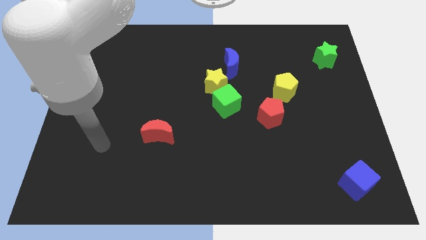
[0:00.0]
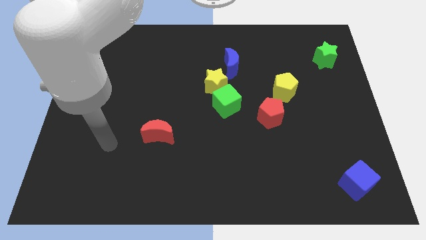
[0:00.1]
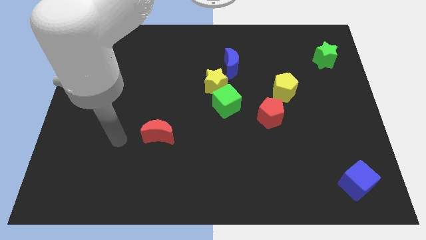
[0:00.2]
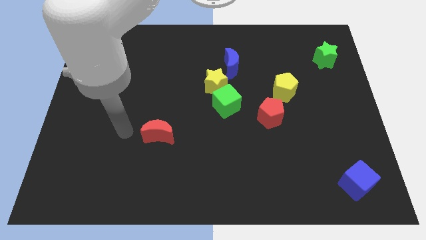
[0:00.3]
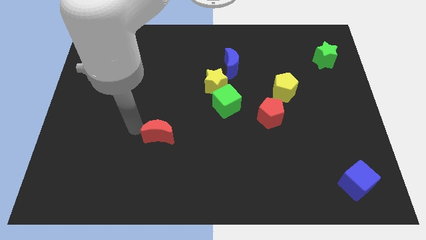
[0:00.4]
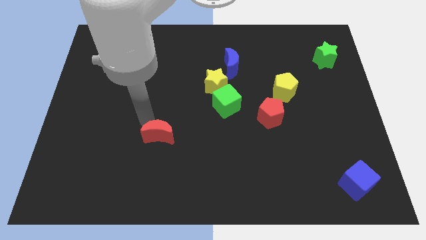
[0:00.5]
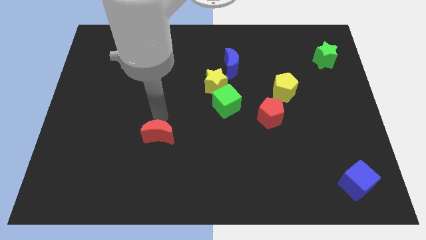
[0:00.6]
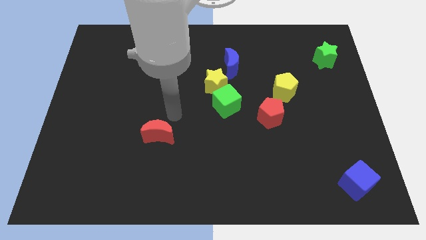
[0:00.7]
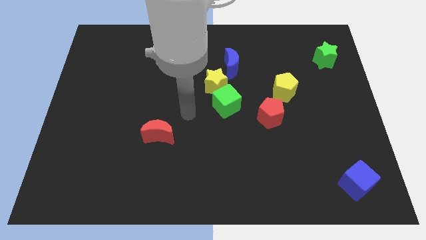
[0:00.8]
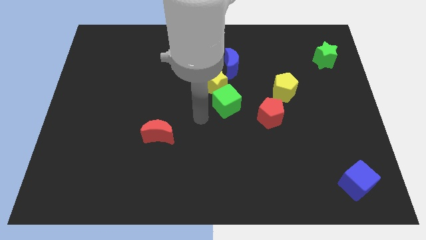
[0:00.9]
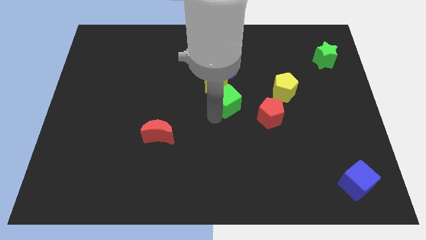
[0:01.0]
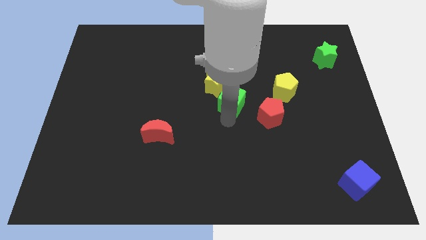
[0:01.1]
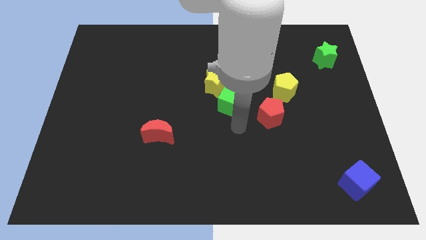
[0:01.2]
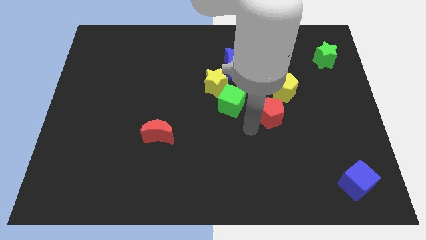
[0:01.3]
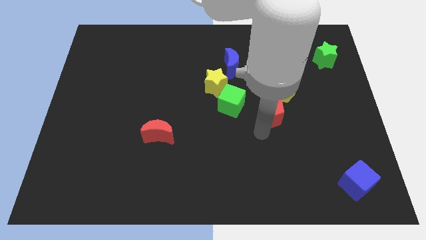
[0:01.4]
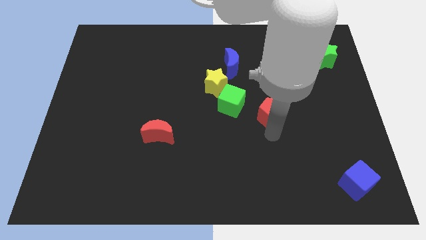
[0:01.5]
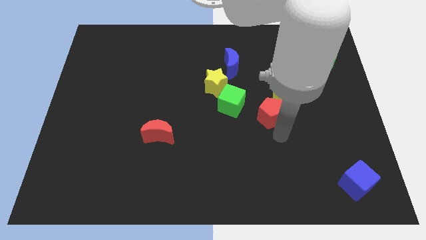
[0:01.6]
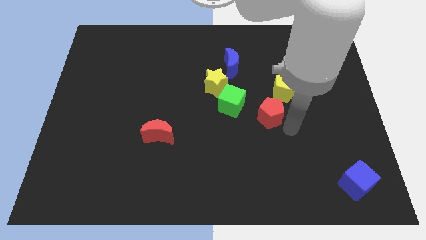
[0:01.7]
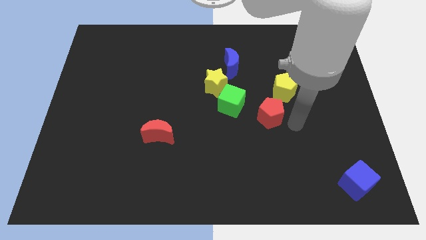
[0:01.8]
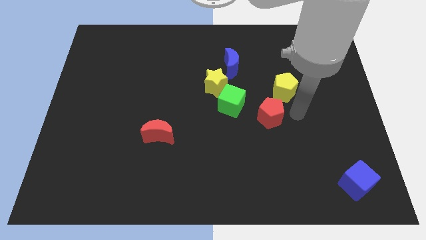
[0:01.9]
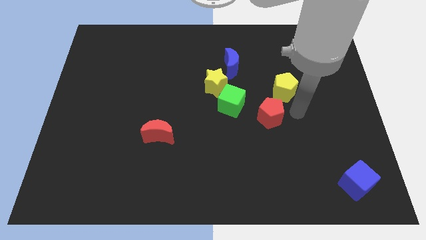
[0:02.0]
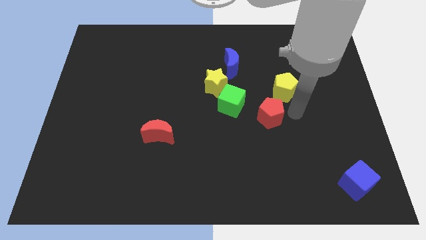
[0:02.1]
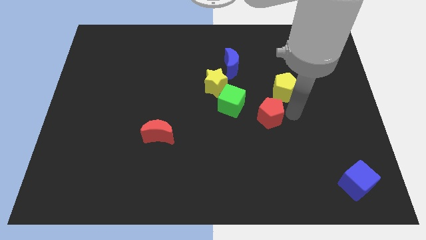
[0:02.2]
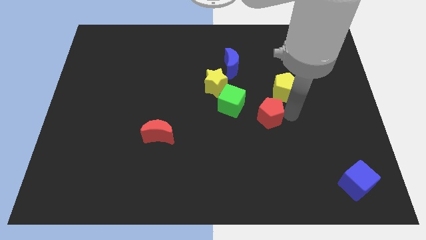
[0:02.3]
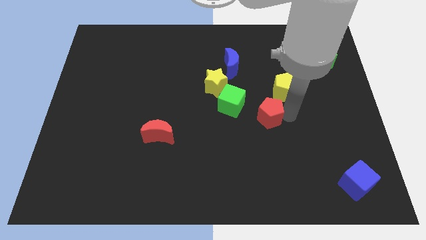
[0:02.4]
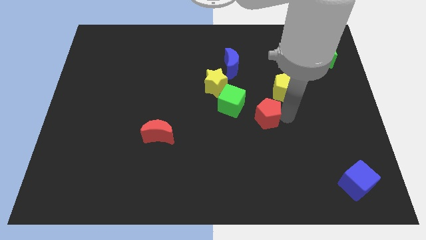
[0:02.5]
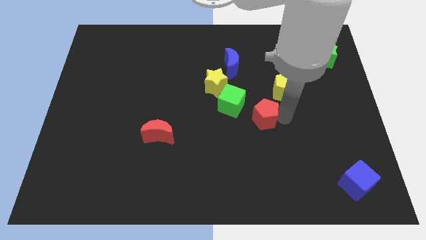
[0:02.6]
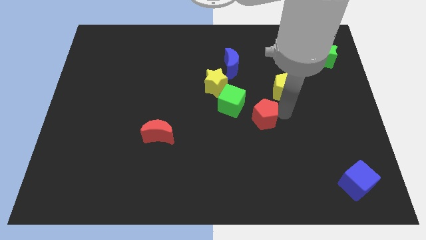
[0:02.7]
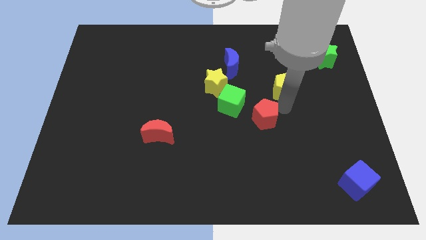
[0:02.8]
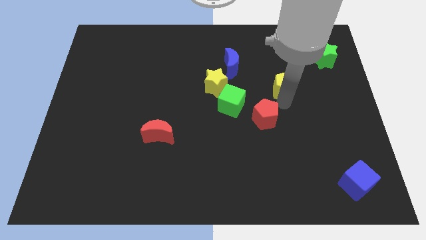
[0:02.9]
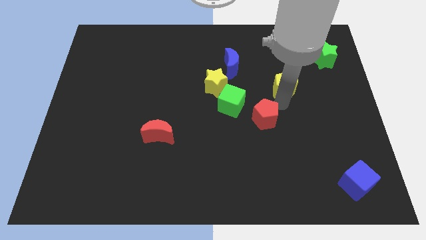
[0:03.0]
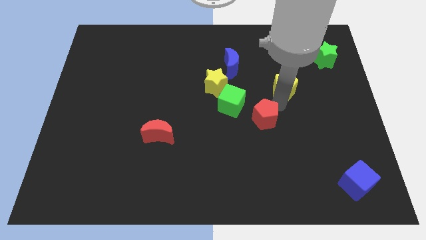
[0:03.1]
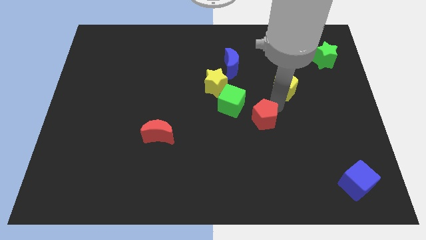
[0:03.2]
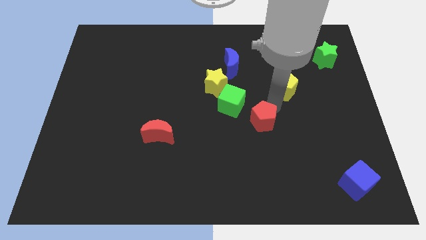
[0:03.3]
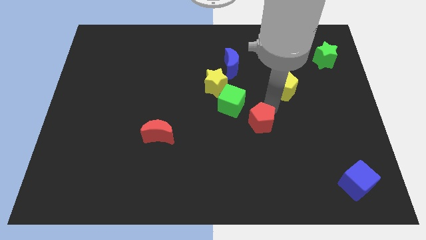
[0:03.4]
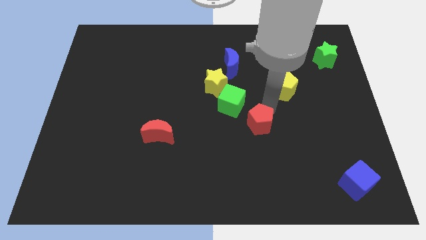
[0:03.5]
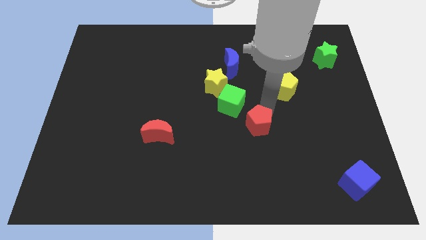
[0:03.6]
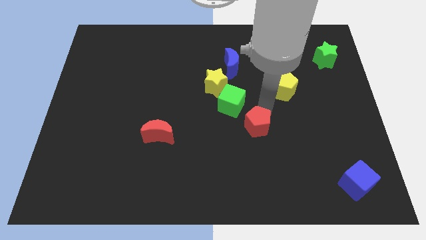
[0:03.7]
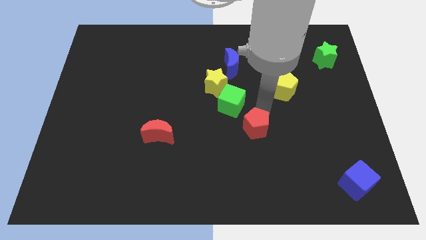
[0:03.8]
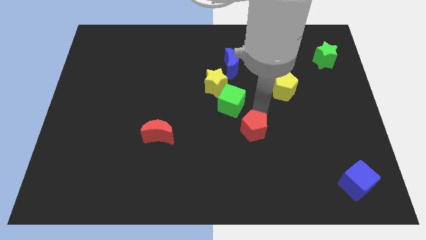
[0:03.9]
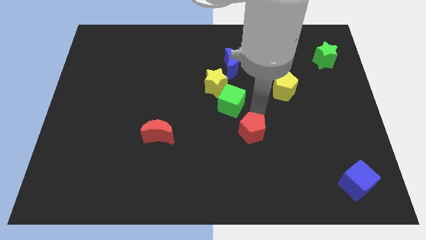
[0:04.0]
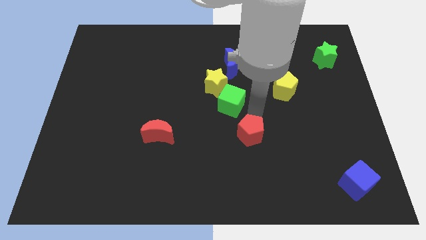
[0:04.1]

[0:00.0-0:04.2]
slide the red pentagon down and to the left diagonally a little

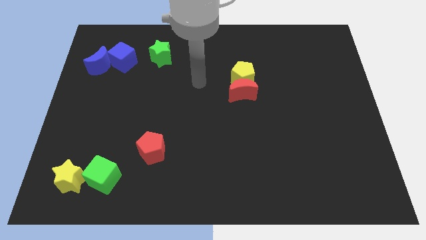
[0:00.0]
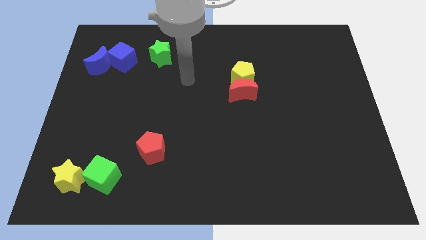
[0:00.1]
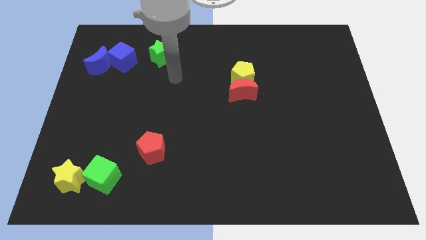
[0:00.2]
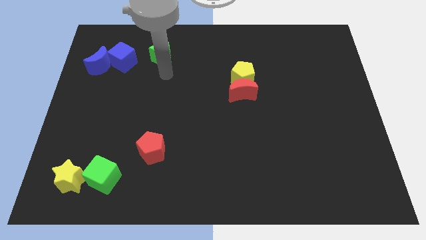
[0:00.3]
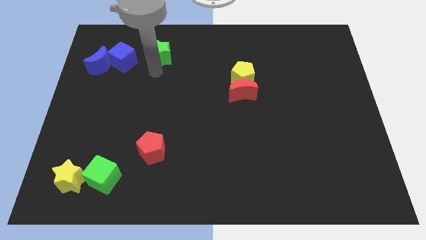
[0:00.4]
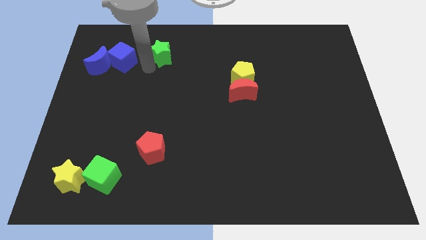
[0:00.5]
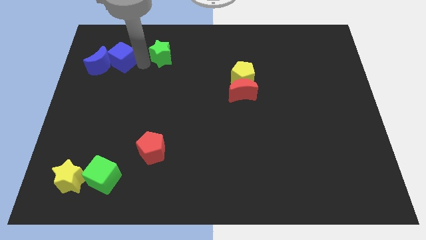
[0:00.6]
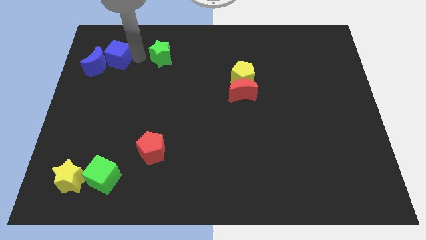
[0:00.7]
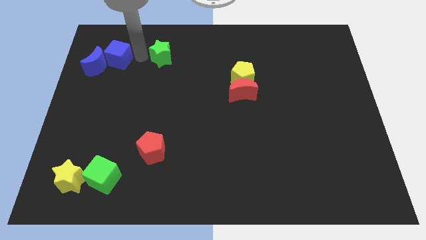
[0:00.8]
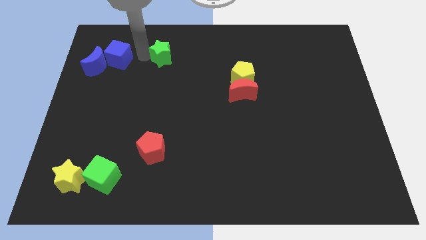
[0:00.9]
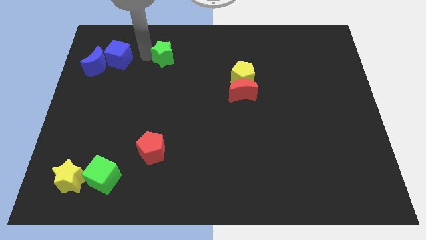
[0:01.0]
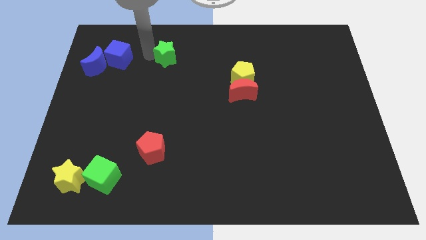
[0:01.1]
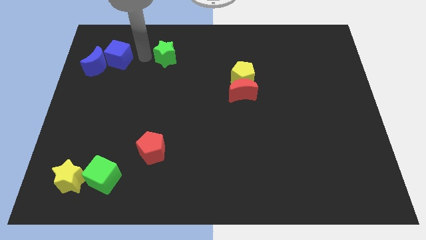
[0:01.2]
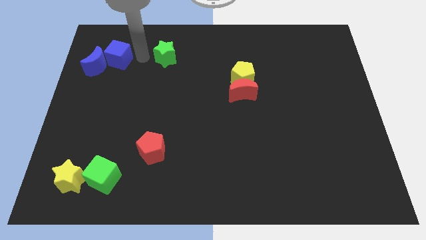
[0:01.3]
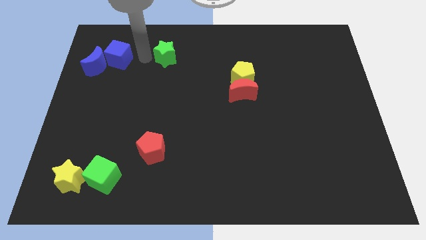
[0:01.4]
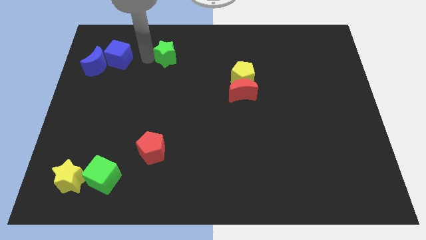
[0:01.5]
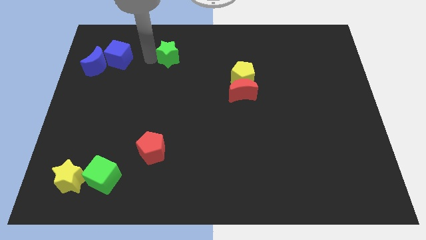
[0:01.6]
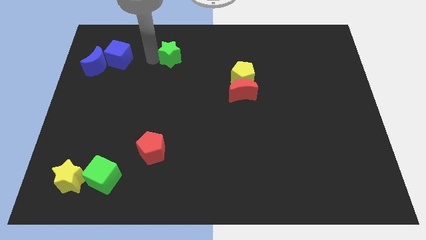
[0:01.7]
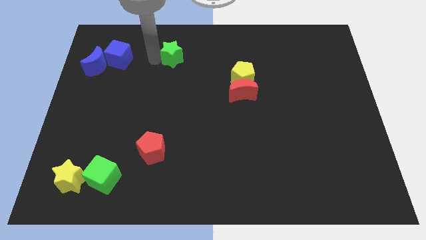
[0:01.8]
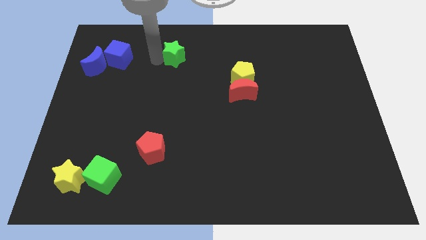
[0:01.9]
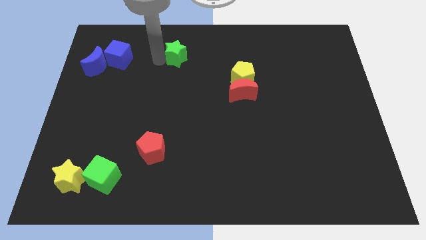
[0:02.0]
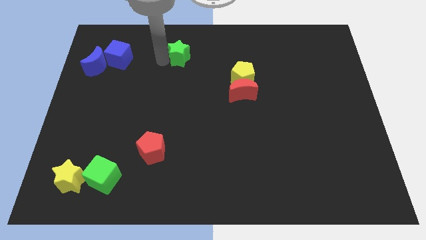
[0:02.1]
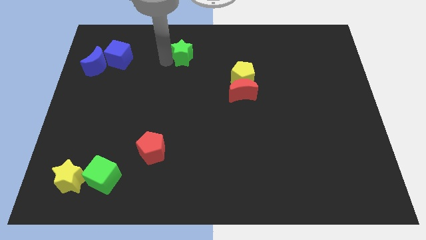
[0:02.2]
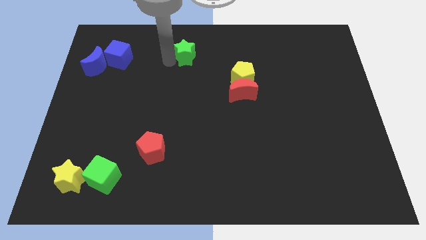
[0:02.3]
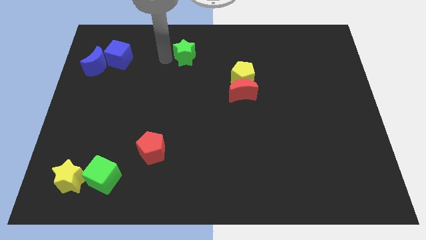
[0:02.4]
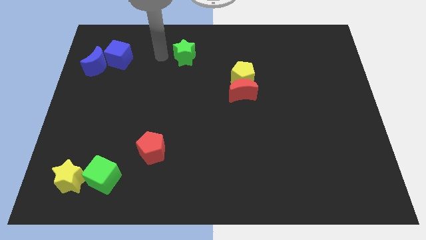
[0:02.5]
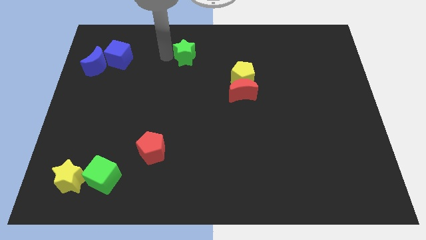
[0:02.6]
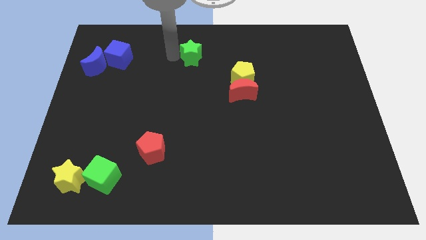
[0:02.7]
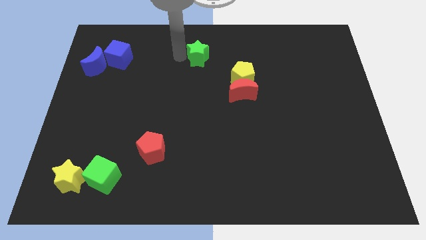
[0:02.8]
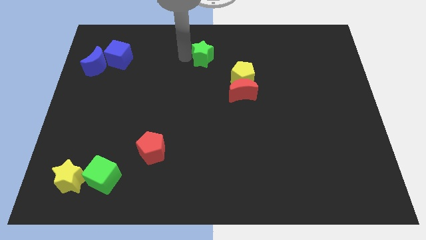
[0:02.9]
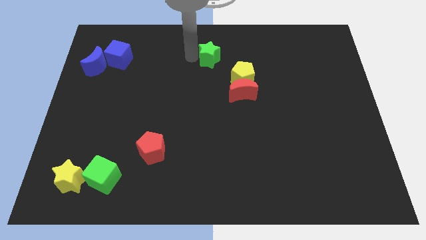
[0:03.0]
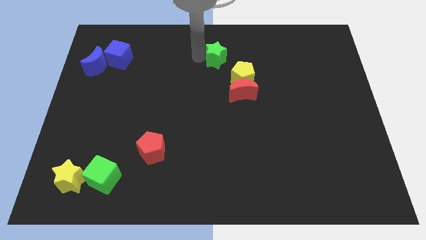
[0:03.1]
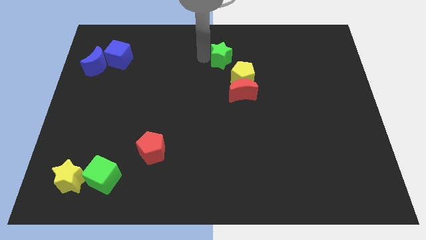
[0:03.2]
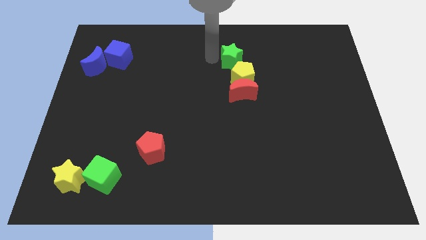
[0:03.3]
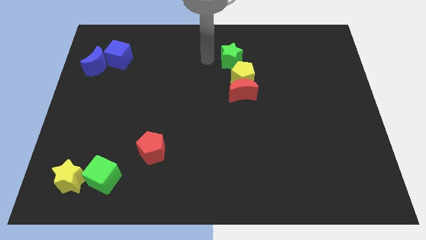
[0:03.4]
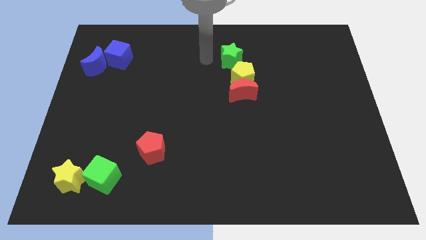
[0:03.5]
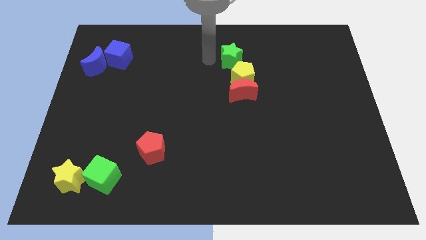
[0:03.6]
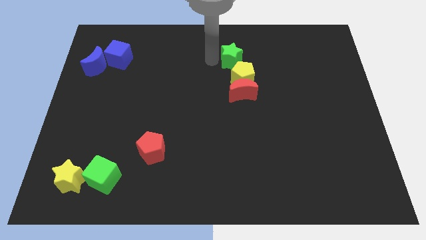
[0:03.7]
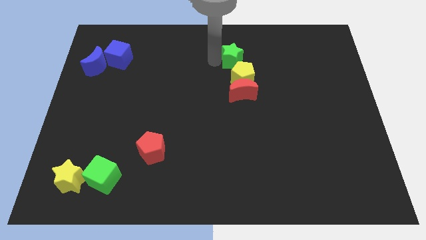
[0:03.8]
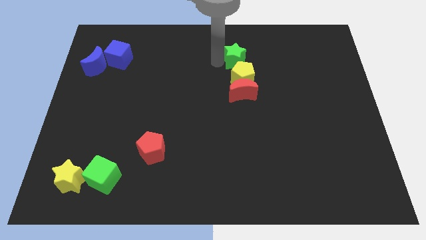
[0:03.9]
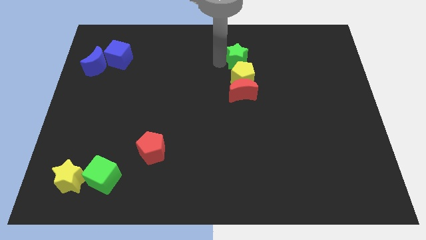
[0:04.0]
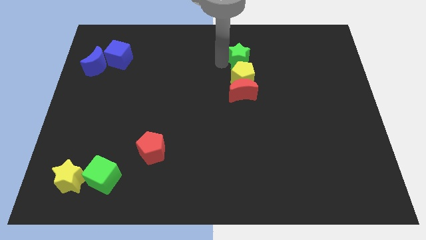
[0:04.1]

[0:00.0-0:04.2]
slide the green star right
